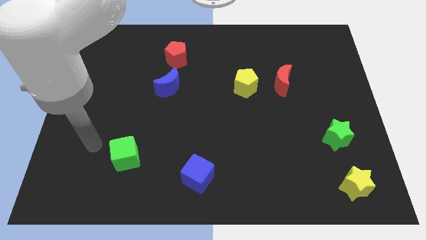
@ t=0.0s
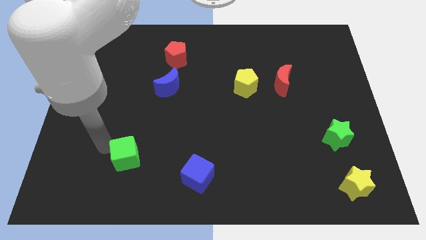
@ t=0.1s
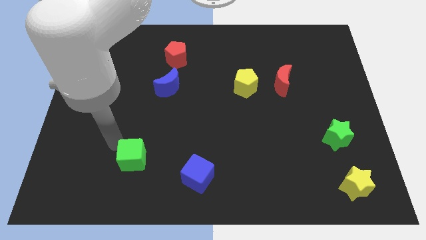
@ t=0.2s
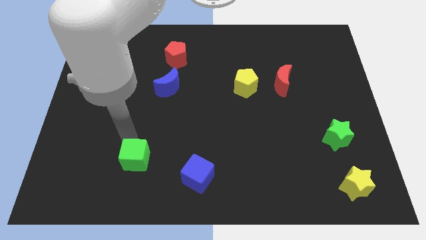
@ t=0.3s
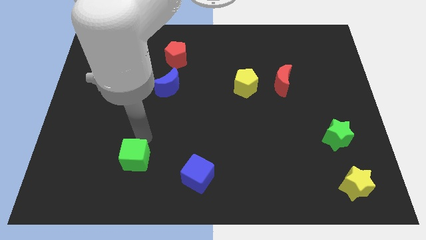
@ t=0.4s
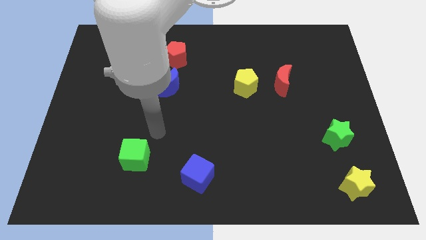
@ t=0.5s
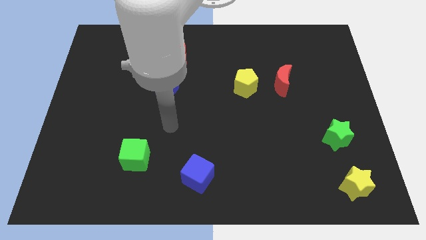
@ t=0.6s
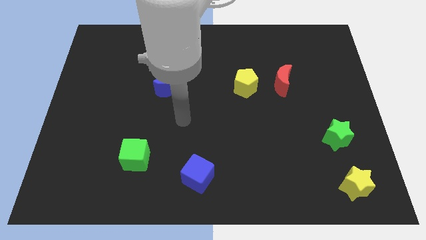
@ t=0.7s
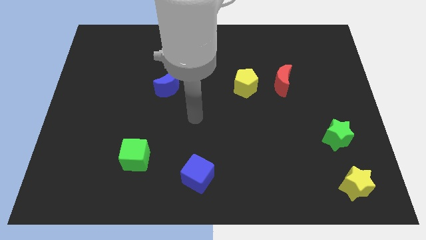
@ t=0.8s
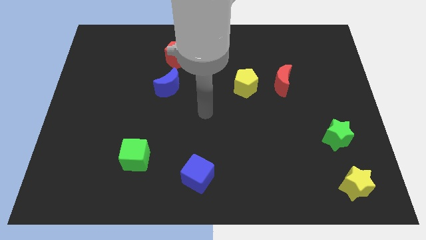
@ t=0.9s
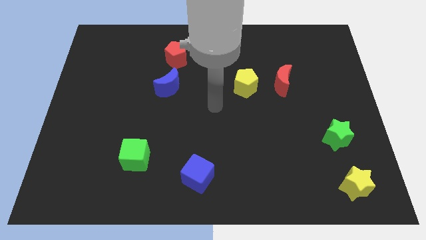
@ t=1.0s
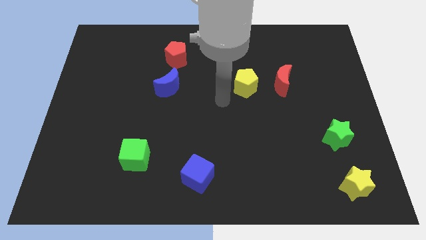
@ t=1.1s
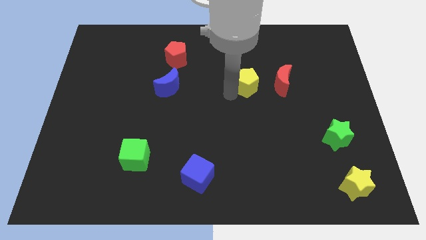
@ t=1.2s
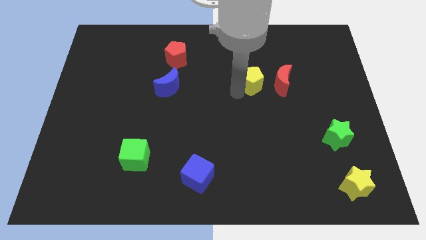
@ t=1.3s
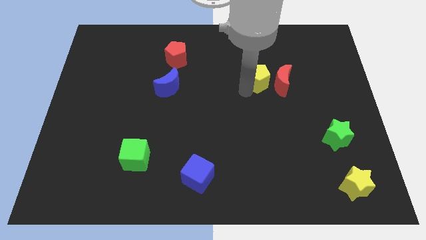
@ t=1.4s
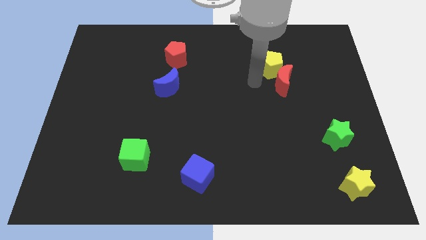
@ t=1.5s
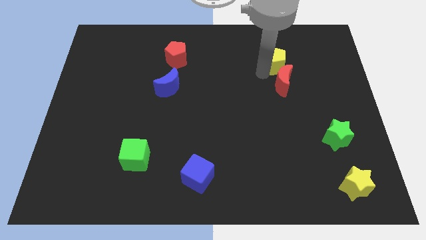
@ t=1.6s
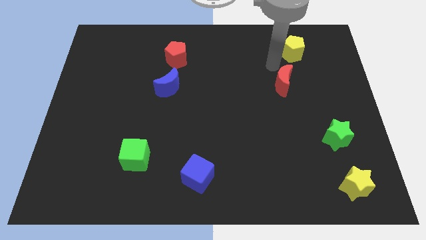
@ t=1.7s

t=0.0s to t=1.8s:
separate the red moon from the yellow pentagon

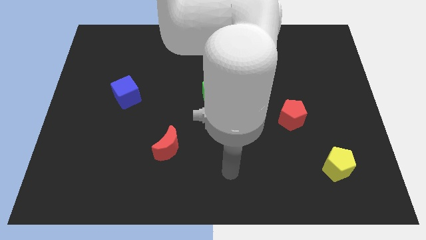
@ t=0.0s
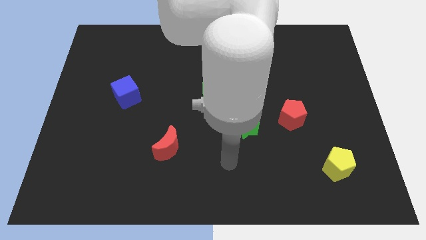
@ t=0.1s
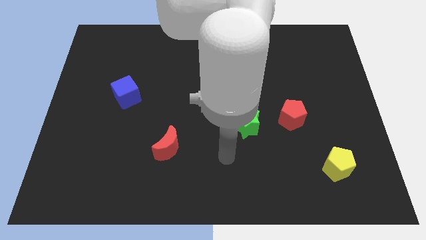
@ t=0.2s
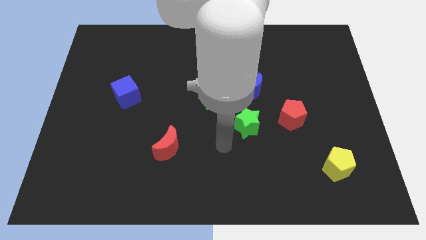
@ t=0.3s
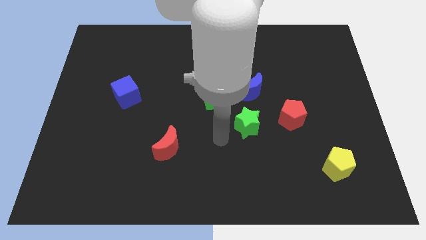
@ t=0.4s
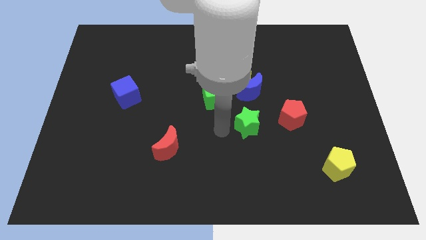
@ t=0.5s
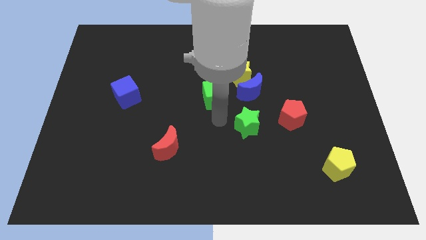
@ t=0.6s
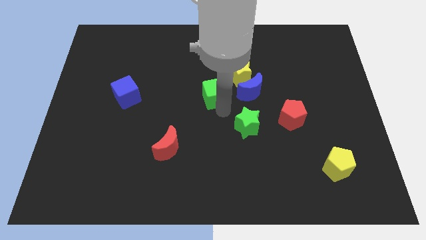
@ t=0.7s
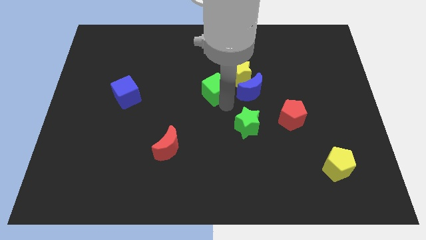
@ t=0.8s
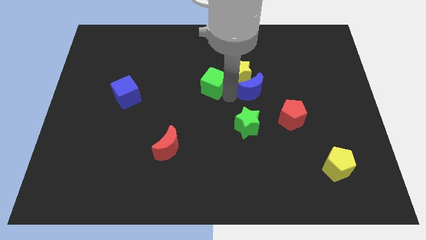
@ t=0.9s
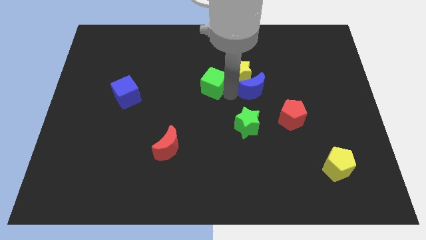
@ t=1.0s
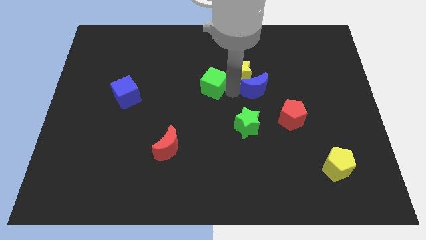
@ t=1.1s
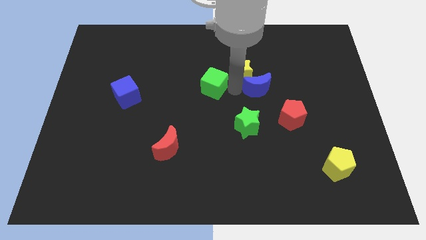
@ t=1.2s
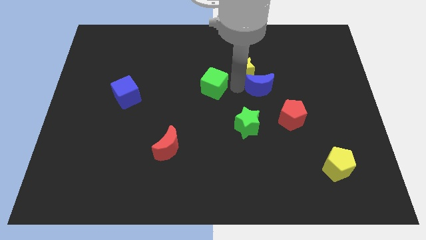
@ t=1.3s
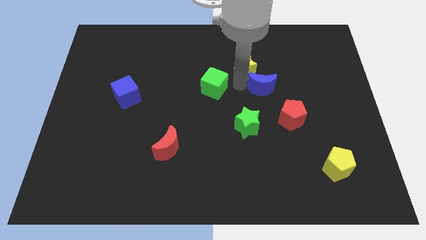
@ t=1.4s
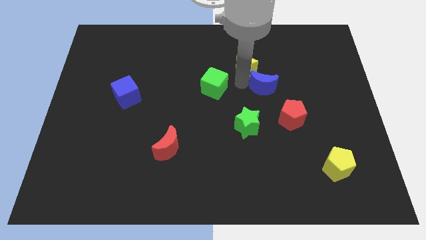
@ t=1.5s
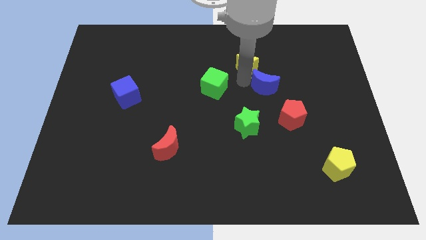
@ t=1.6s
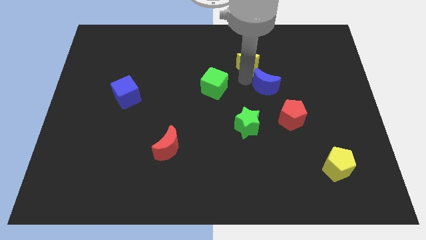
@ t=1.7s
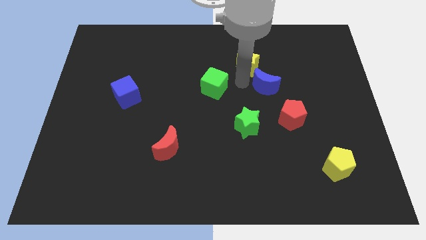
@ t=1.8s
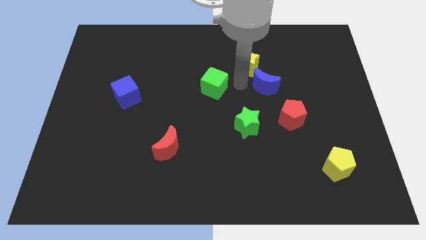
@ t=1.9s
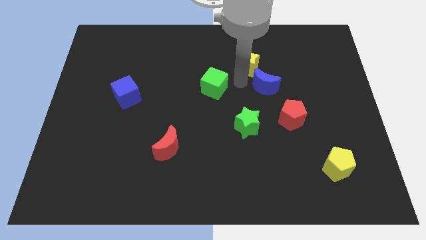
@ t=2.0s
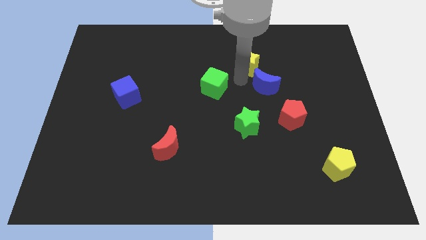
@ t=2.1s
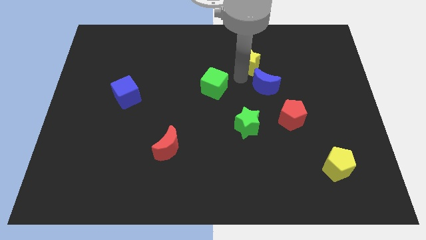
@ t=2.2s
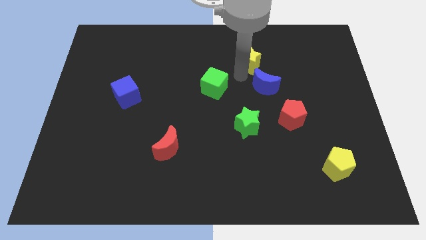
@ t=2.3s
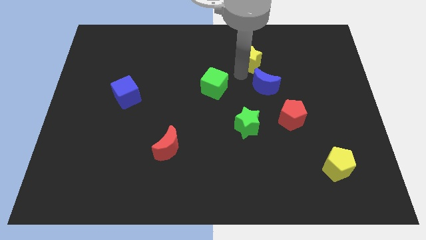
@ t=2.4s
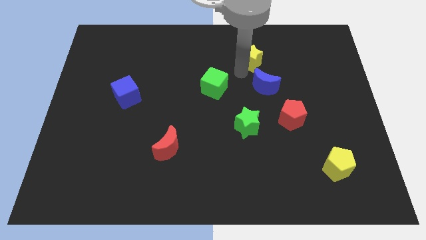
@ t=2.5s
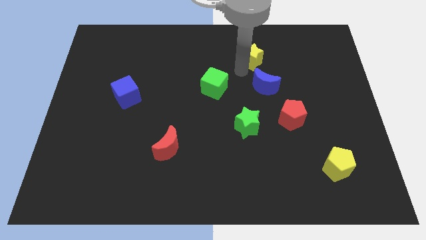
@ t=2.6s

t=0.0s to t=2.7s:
pull the yellow star apart from the blue moon and green cube

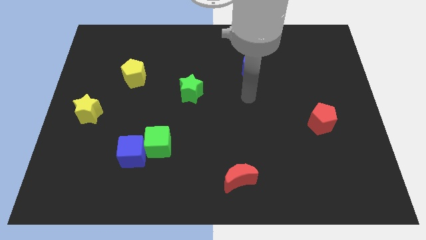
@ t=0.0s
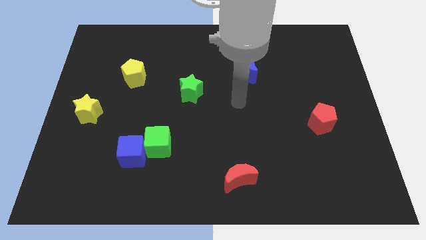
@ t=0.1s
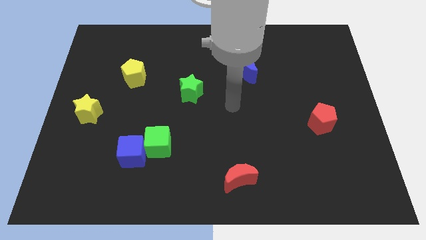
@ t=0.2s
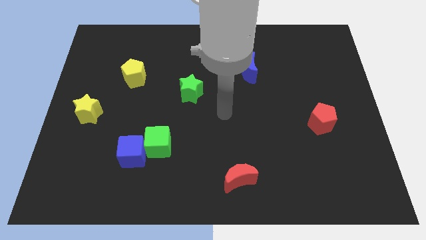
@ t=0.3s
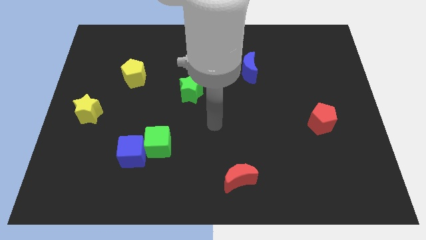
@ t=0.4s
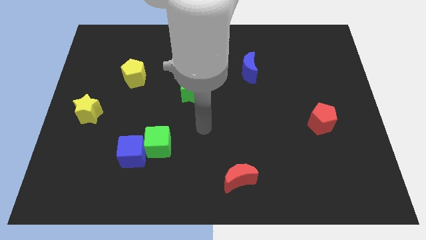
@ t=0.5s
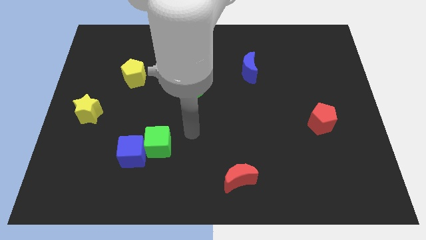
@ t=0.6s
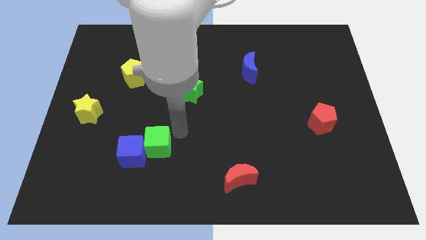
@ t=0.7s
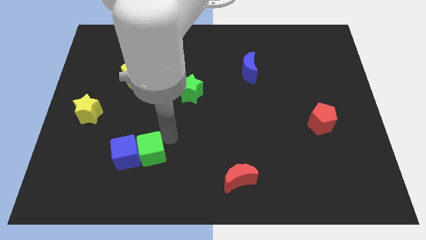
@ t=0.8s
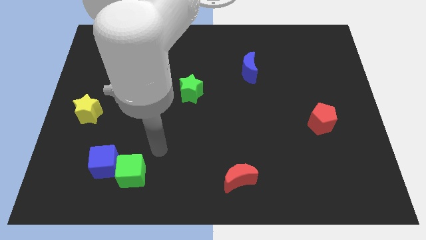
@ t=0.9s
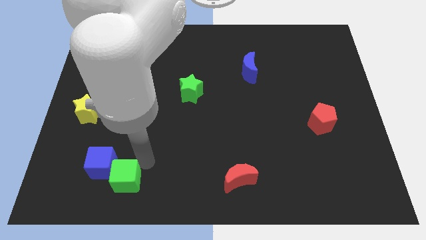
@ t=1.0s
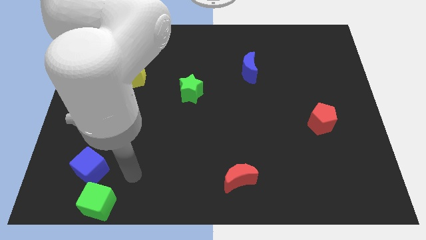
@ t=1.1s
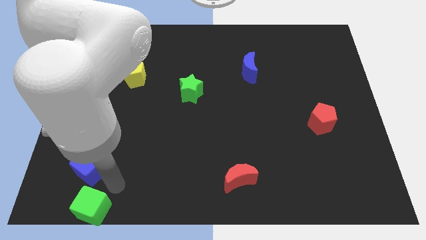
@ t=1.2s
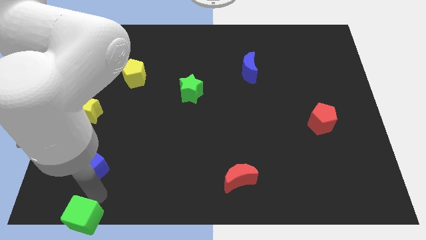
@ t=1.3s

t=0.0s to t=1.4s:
move the blue cube away from the green cube

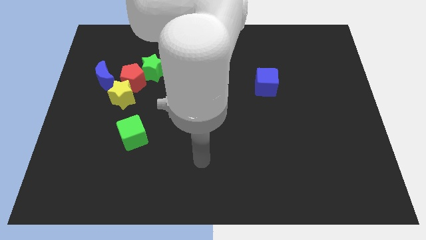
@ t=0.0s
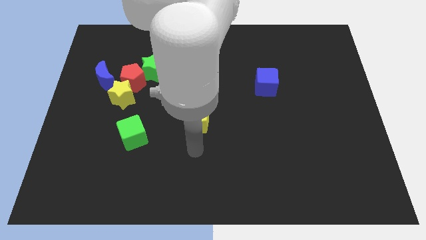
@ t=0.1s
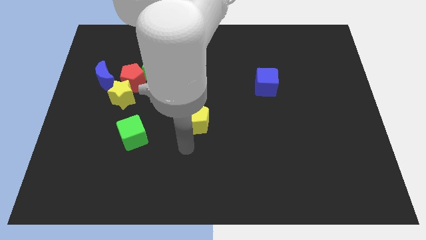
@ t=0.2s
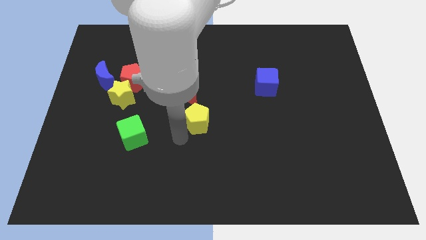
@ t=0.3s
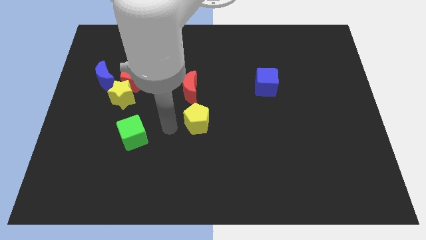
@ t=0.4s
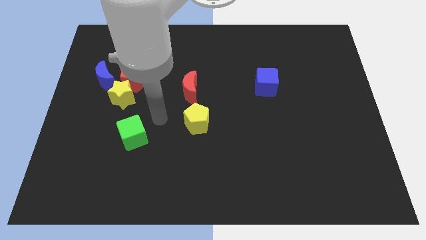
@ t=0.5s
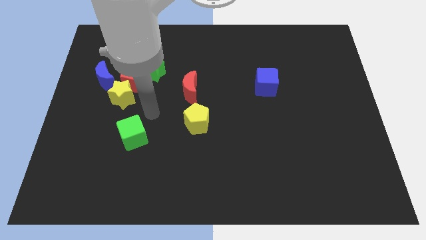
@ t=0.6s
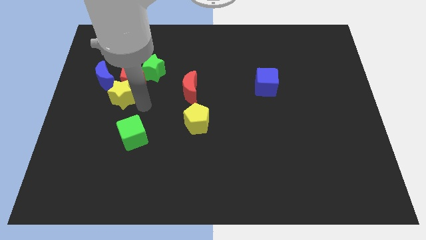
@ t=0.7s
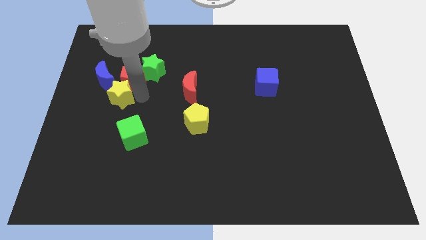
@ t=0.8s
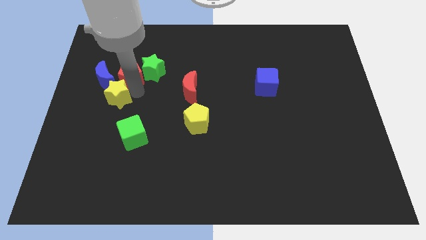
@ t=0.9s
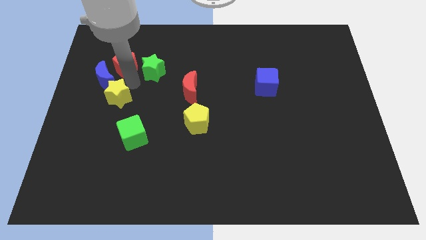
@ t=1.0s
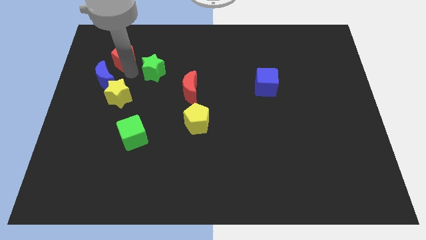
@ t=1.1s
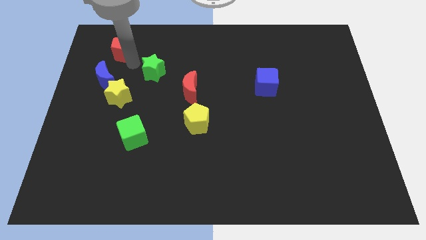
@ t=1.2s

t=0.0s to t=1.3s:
move the green star away from the red pentagon

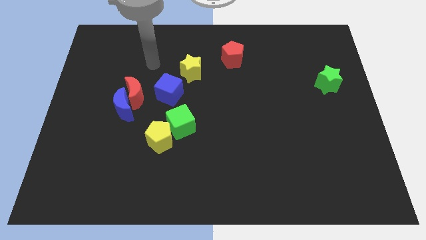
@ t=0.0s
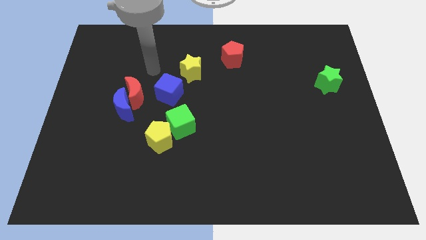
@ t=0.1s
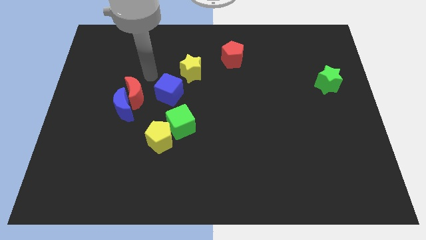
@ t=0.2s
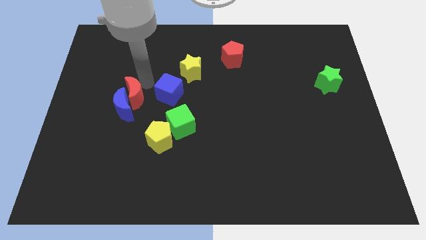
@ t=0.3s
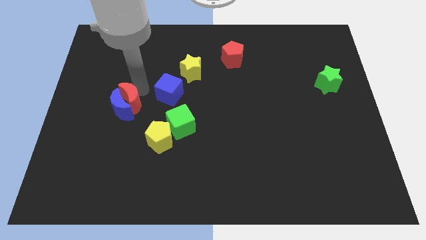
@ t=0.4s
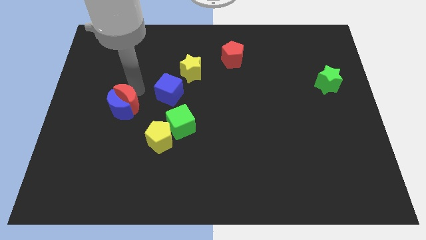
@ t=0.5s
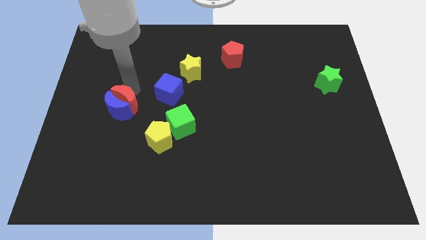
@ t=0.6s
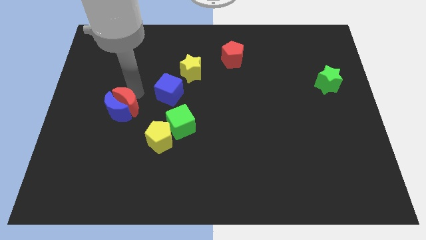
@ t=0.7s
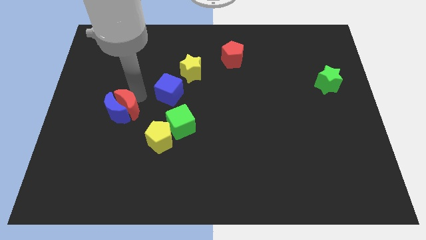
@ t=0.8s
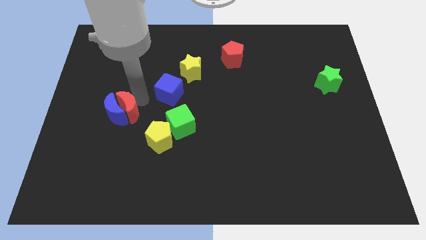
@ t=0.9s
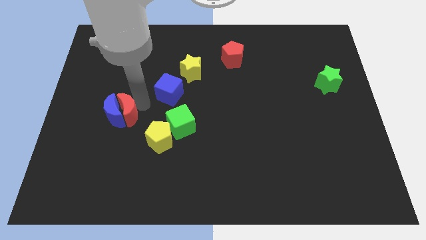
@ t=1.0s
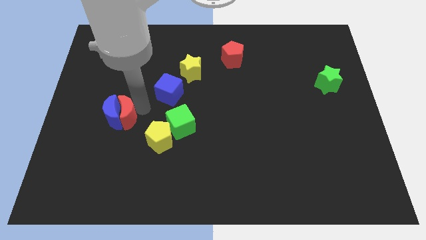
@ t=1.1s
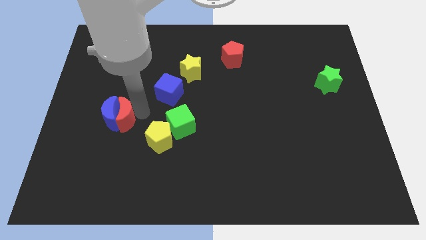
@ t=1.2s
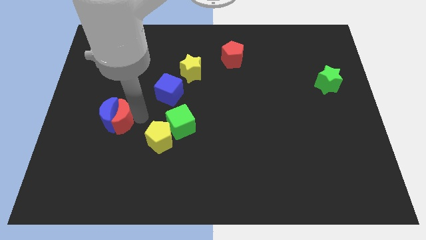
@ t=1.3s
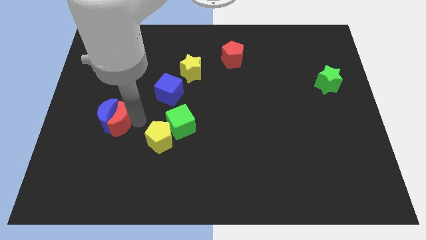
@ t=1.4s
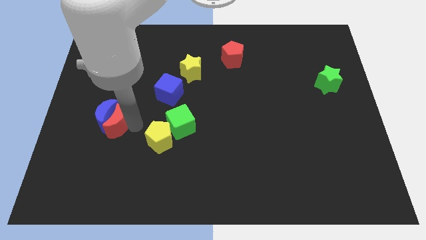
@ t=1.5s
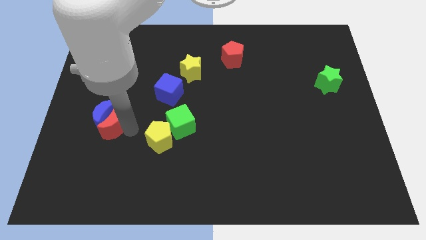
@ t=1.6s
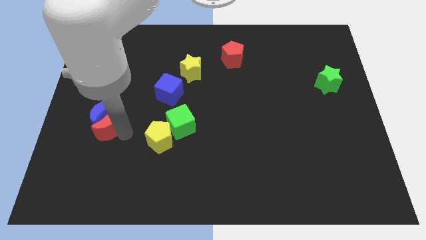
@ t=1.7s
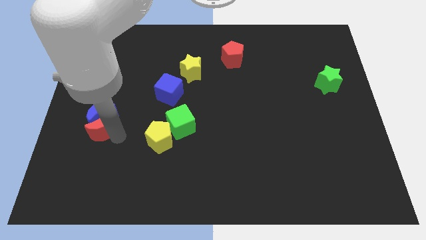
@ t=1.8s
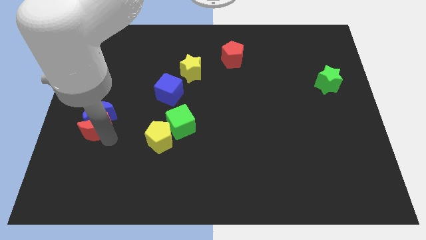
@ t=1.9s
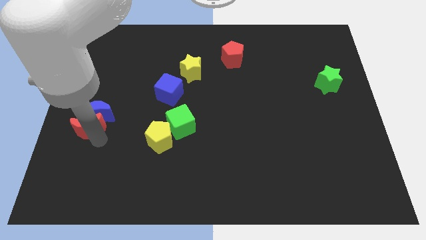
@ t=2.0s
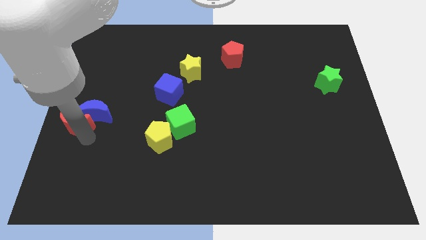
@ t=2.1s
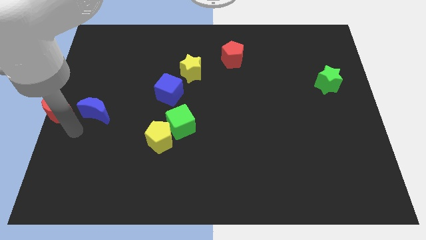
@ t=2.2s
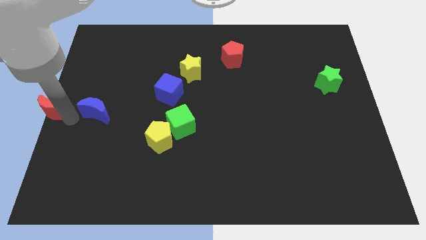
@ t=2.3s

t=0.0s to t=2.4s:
separate the blue moon from the red moon
